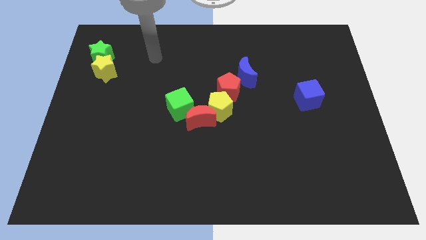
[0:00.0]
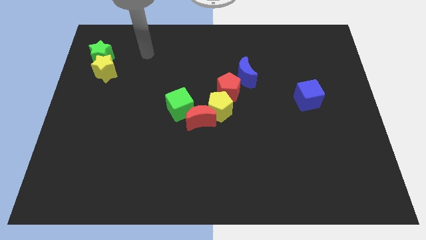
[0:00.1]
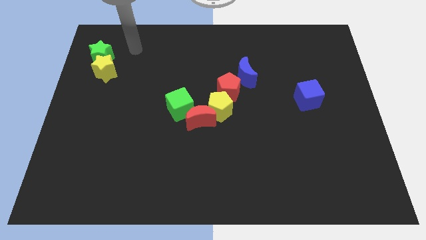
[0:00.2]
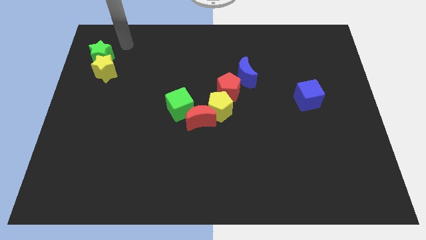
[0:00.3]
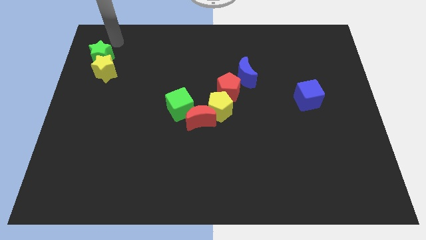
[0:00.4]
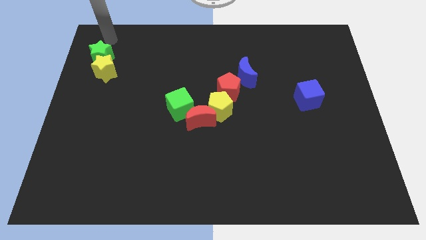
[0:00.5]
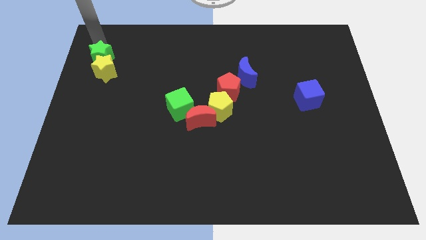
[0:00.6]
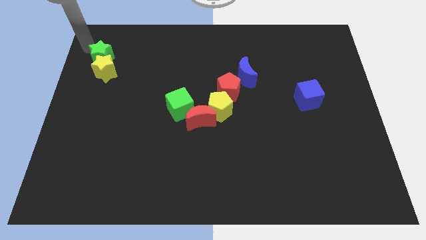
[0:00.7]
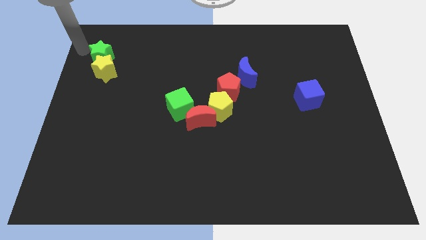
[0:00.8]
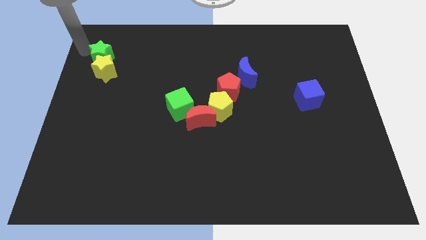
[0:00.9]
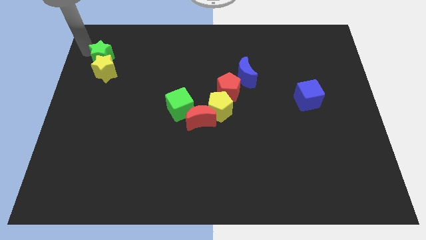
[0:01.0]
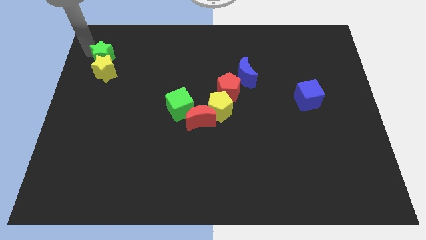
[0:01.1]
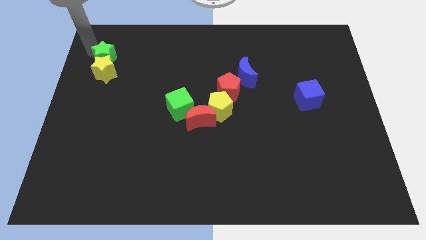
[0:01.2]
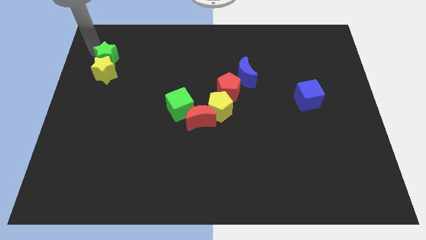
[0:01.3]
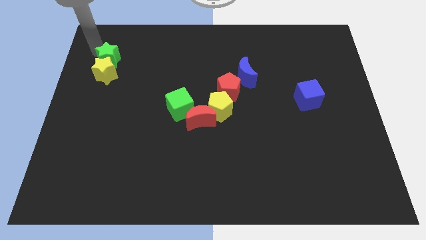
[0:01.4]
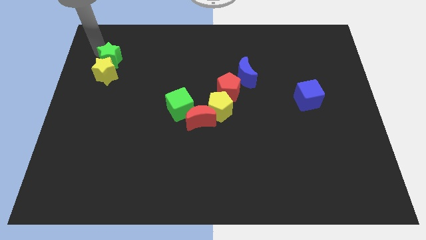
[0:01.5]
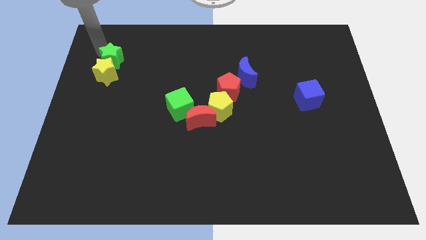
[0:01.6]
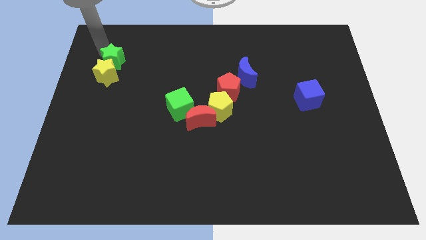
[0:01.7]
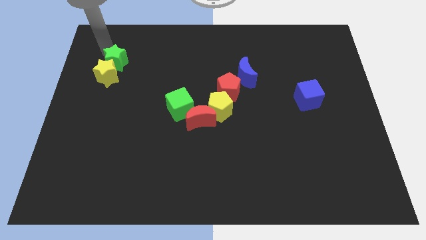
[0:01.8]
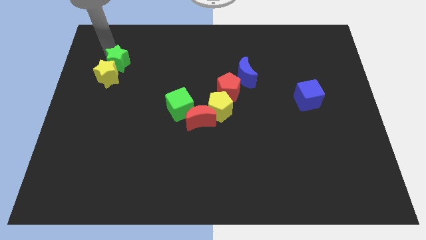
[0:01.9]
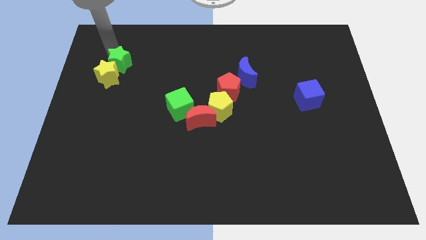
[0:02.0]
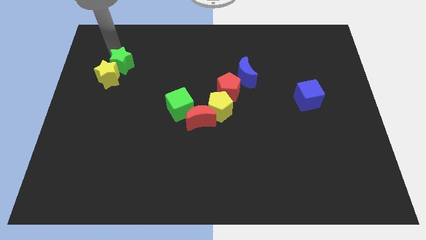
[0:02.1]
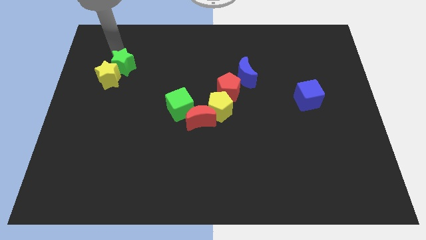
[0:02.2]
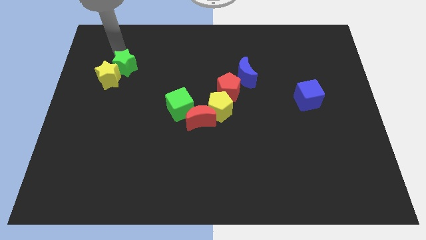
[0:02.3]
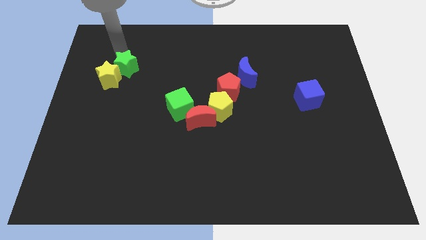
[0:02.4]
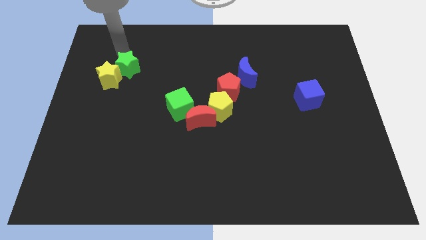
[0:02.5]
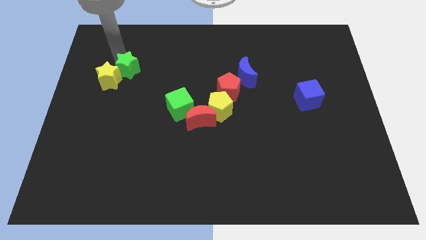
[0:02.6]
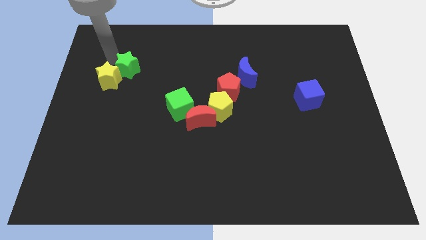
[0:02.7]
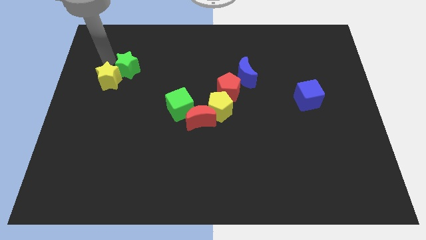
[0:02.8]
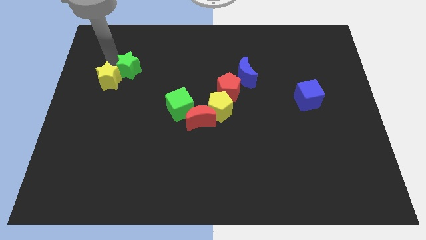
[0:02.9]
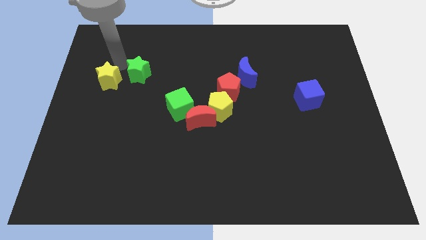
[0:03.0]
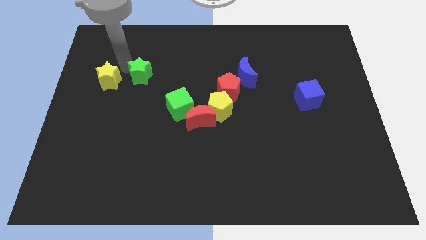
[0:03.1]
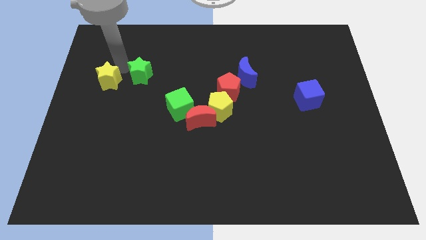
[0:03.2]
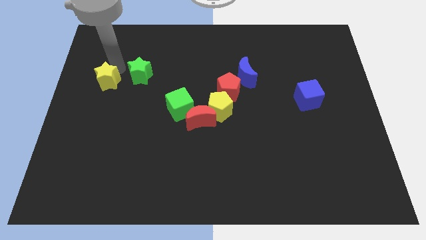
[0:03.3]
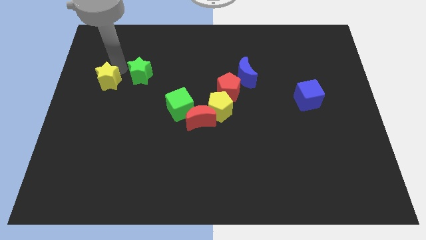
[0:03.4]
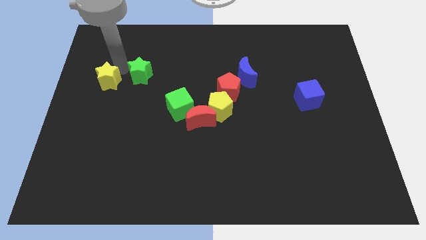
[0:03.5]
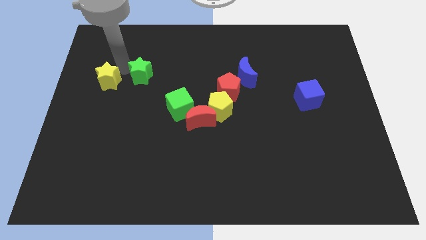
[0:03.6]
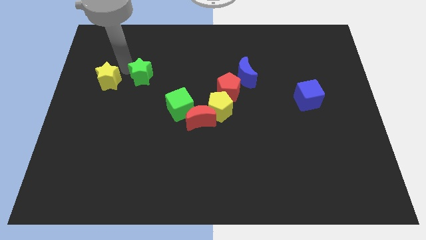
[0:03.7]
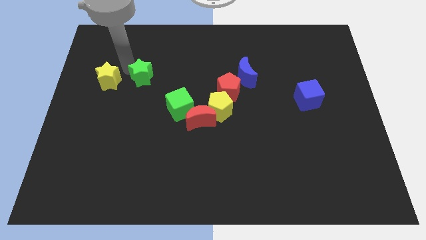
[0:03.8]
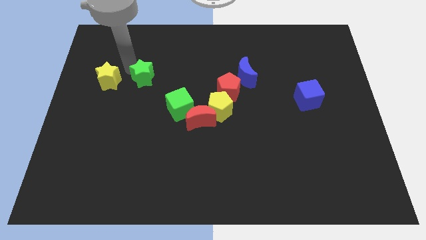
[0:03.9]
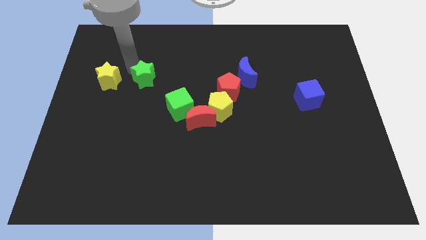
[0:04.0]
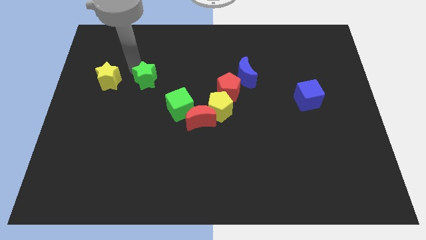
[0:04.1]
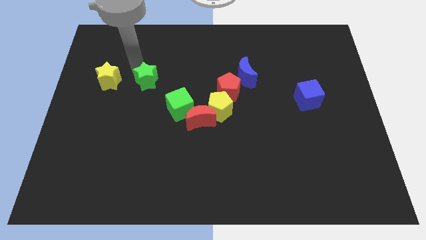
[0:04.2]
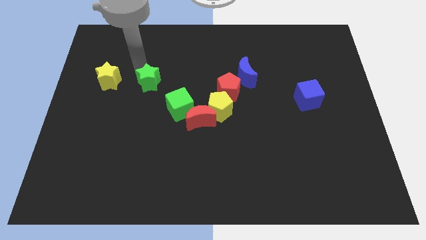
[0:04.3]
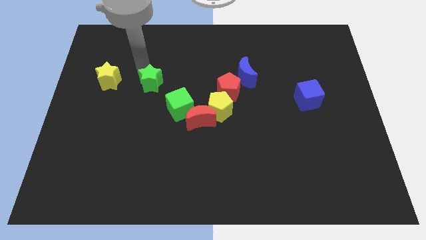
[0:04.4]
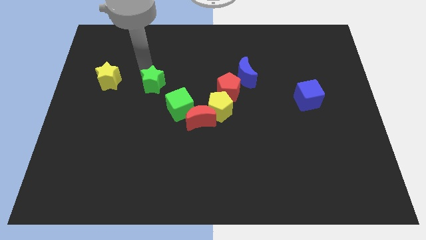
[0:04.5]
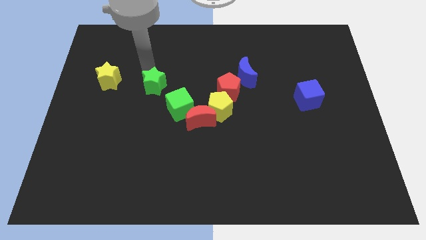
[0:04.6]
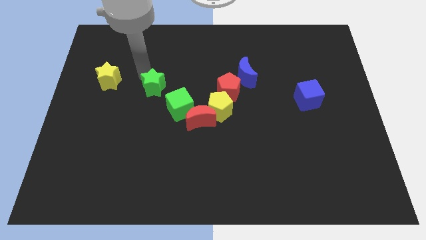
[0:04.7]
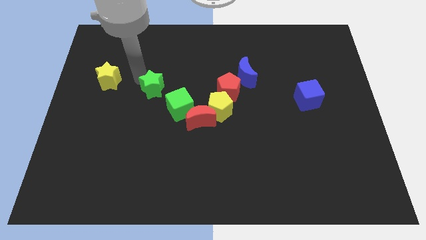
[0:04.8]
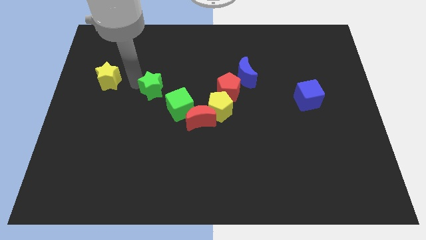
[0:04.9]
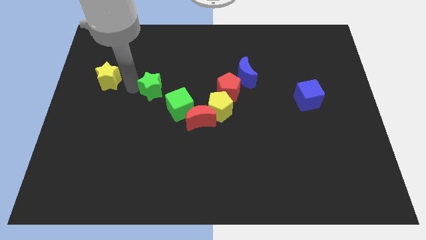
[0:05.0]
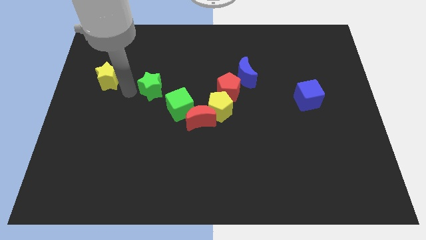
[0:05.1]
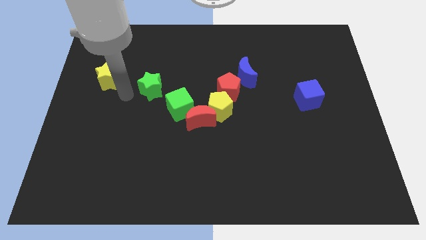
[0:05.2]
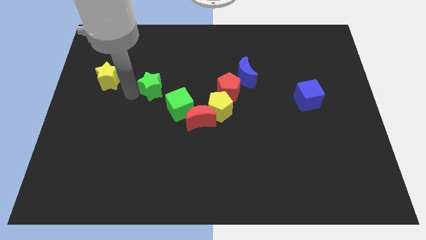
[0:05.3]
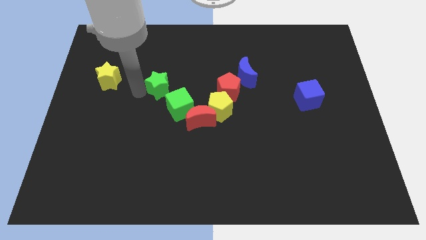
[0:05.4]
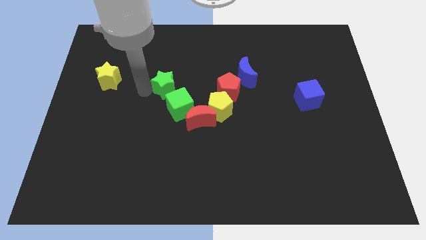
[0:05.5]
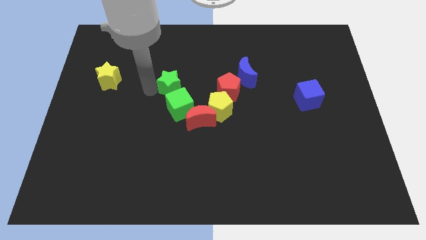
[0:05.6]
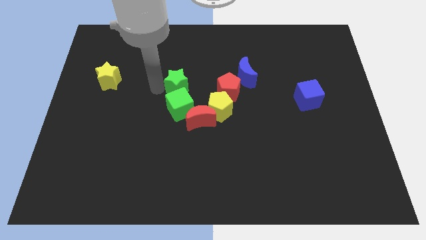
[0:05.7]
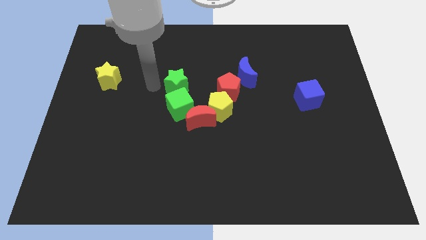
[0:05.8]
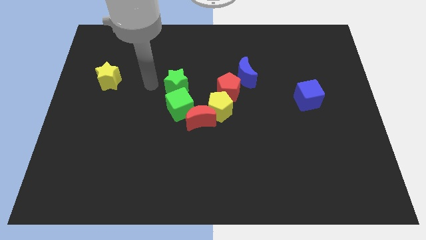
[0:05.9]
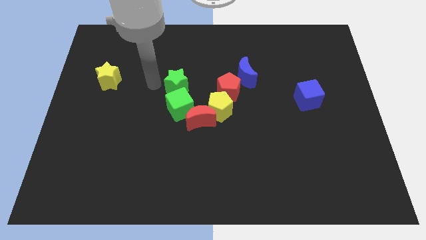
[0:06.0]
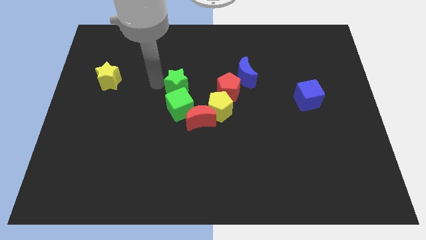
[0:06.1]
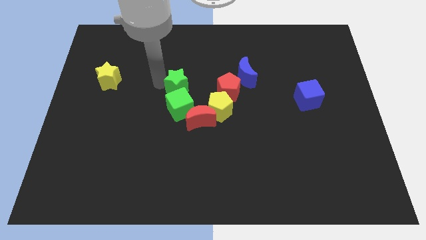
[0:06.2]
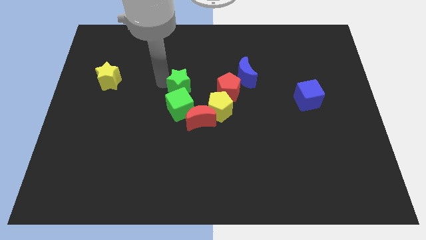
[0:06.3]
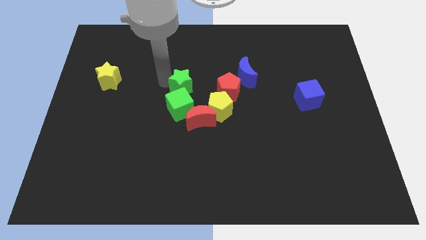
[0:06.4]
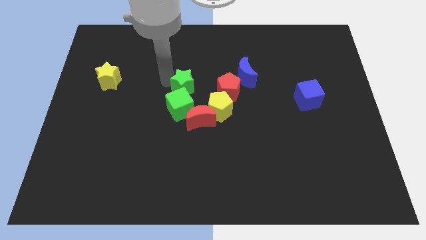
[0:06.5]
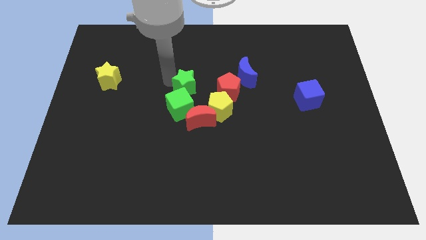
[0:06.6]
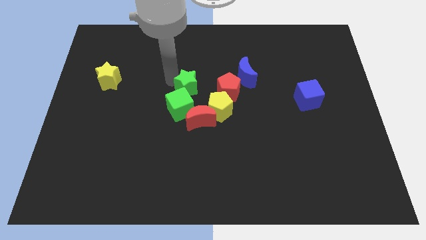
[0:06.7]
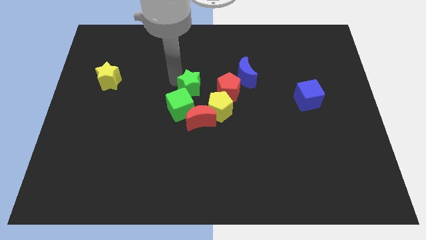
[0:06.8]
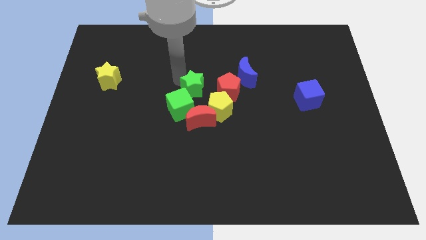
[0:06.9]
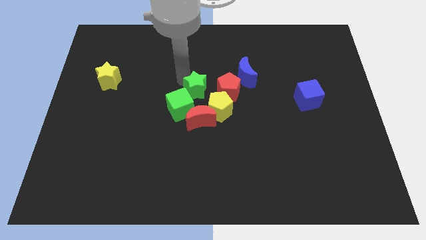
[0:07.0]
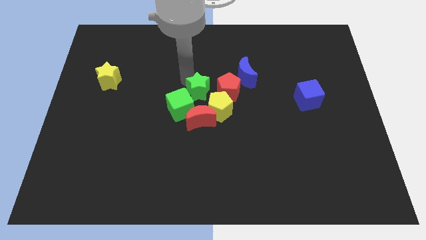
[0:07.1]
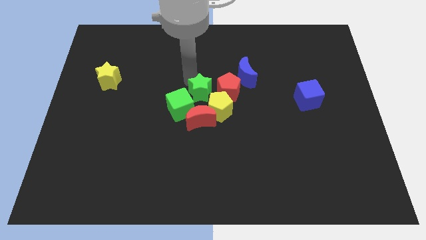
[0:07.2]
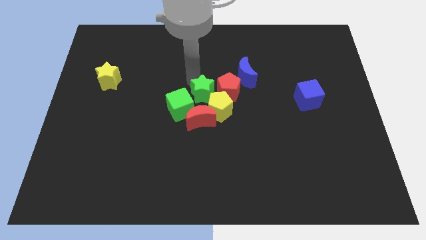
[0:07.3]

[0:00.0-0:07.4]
move the green star next to the red pentagon
